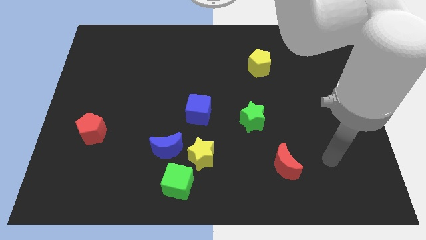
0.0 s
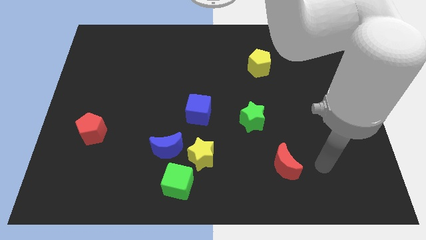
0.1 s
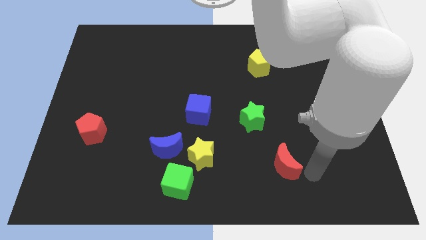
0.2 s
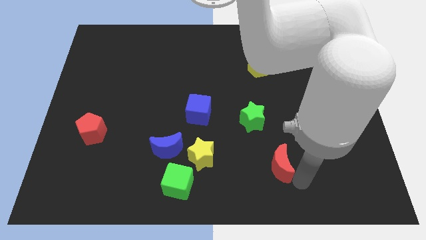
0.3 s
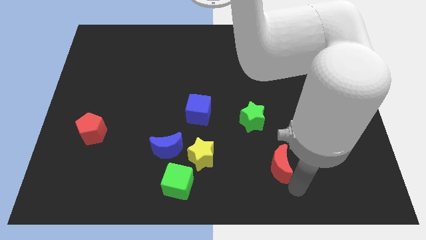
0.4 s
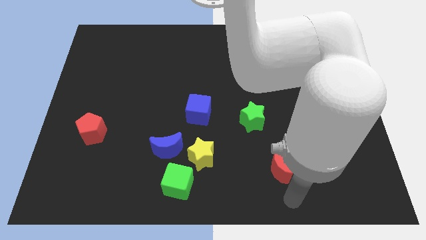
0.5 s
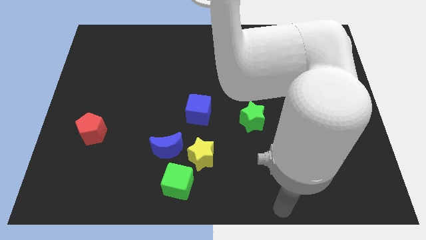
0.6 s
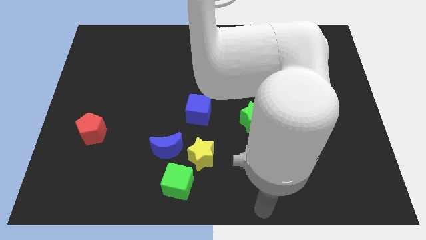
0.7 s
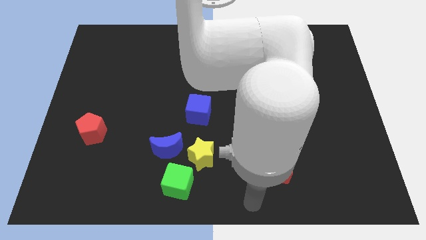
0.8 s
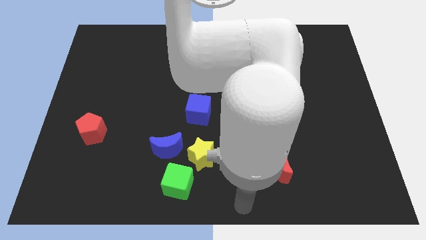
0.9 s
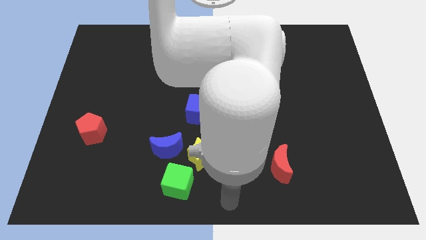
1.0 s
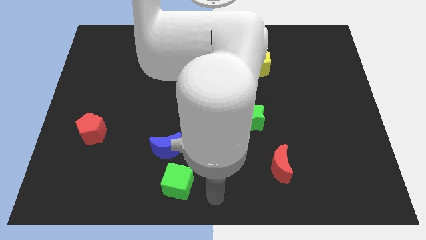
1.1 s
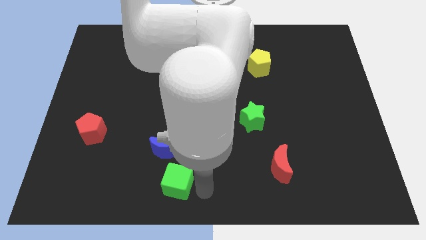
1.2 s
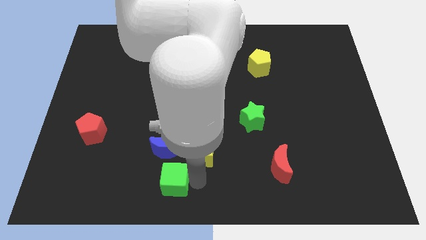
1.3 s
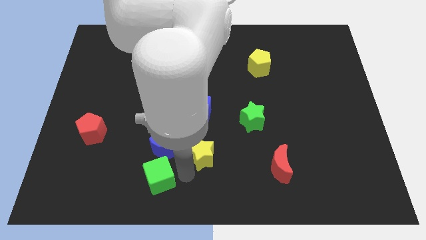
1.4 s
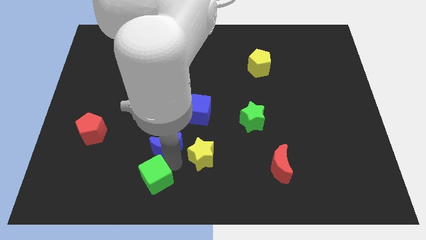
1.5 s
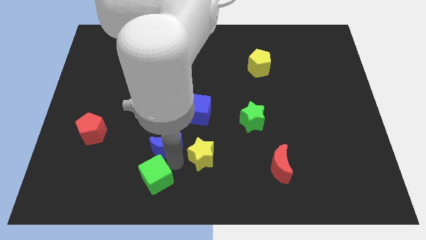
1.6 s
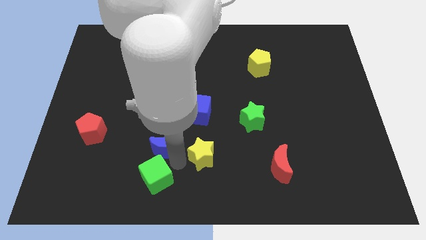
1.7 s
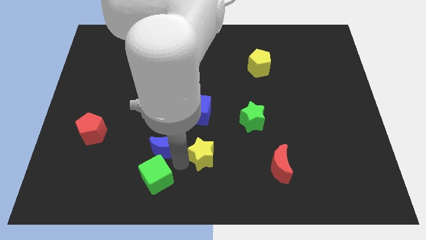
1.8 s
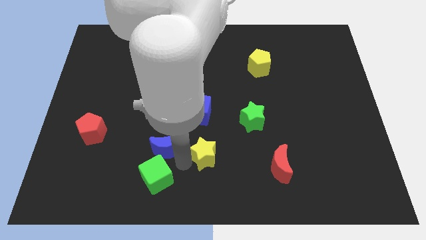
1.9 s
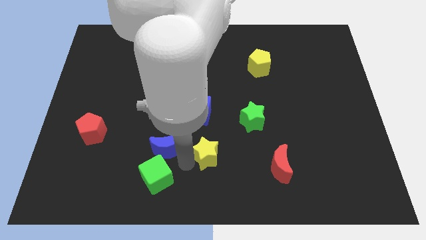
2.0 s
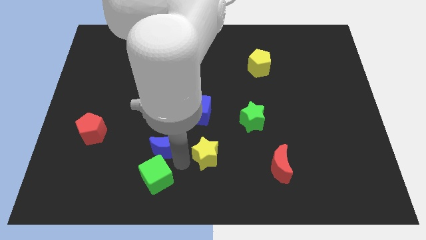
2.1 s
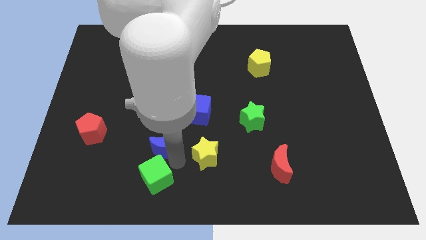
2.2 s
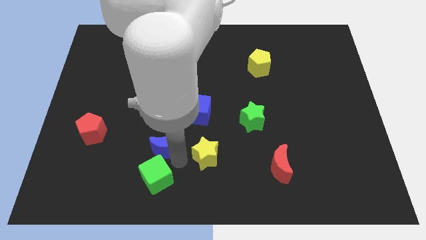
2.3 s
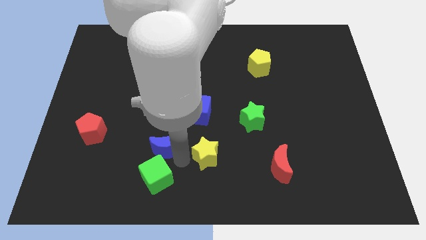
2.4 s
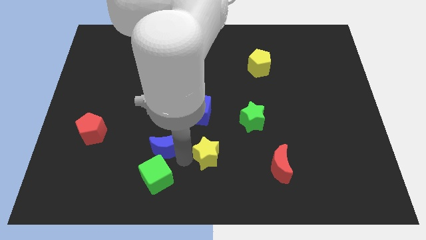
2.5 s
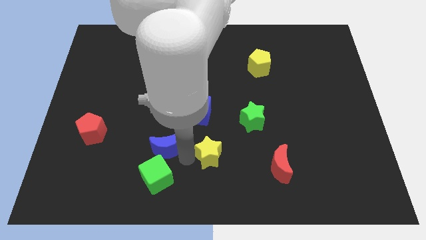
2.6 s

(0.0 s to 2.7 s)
move the yellow star away from the green cube and blue moon

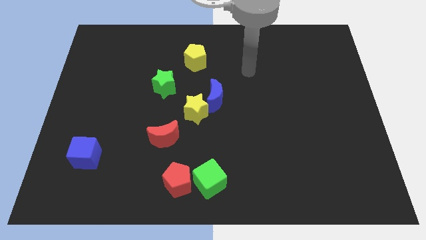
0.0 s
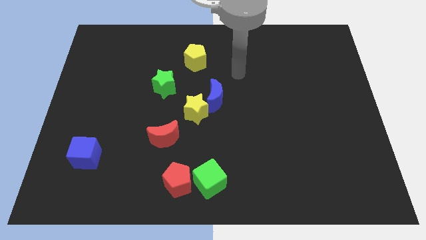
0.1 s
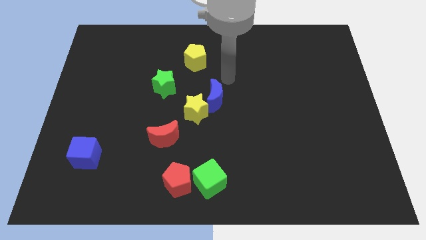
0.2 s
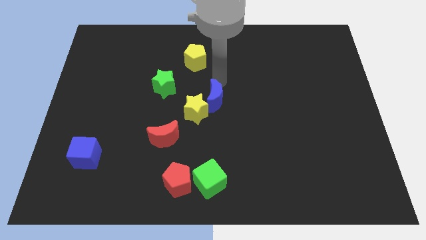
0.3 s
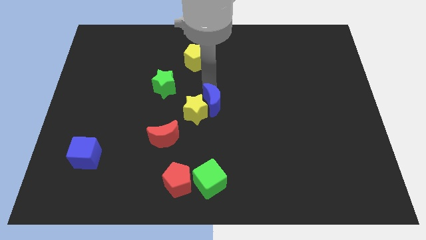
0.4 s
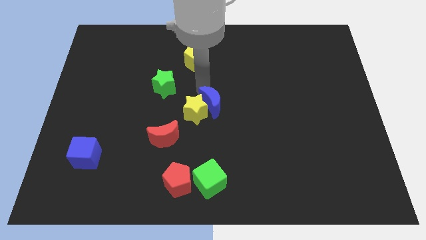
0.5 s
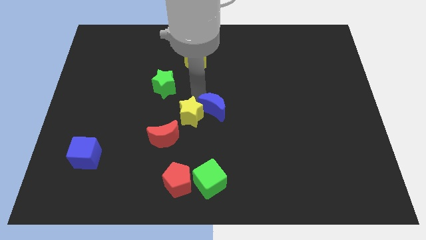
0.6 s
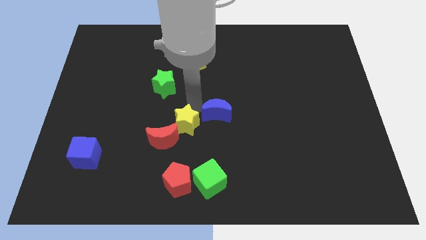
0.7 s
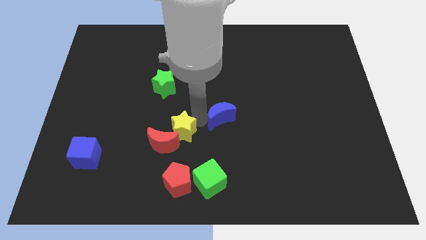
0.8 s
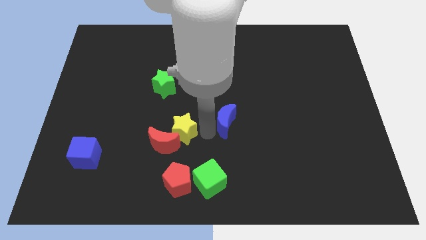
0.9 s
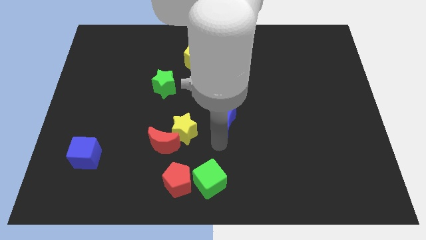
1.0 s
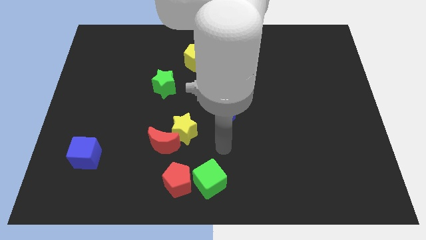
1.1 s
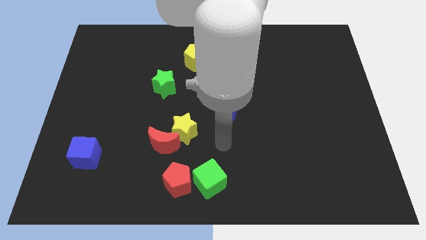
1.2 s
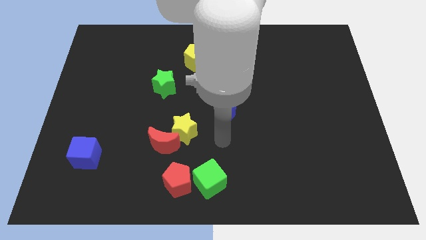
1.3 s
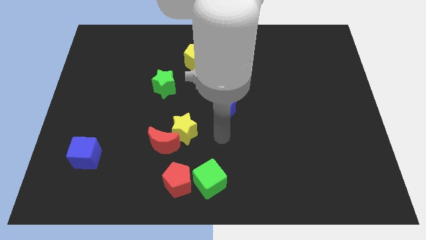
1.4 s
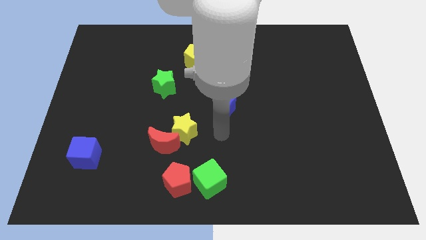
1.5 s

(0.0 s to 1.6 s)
separate the blue moon from the yellow star

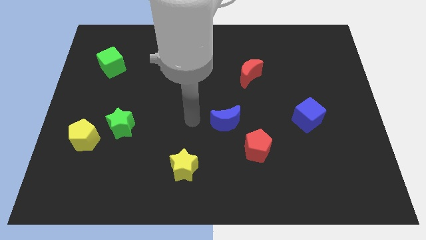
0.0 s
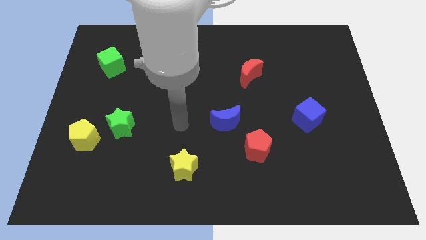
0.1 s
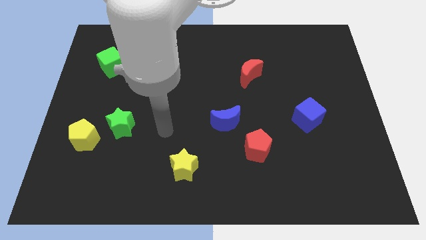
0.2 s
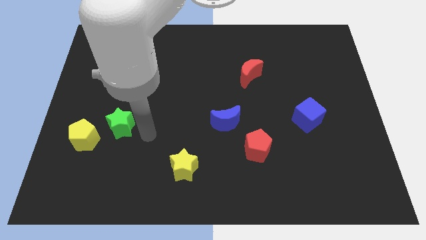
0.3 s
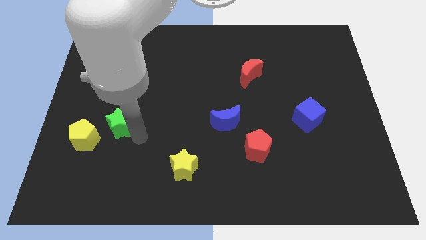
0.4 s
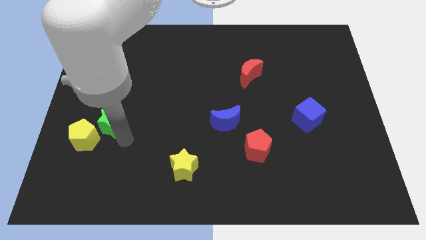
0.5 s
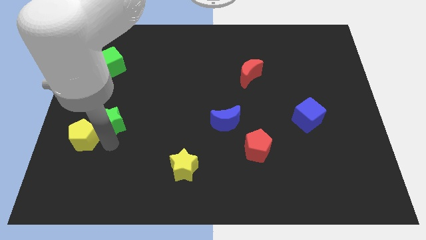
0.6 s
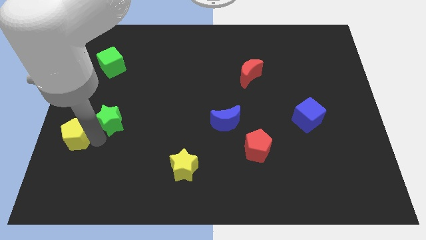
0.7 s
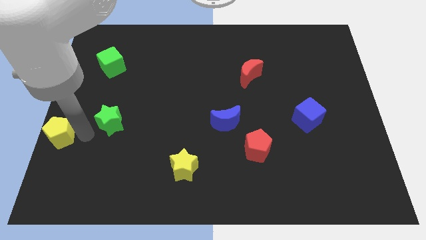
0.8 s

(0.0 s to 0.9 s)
move the green star away from the yellow pentagon

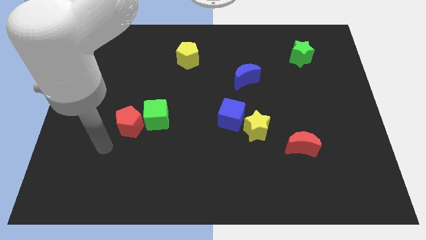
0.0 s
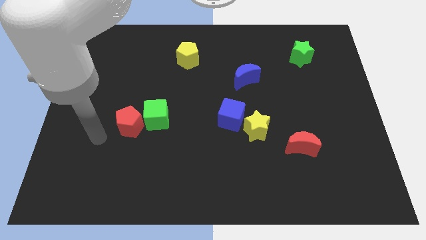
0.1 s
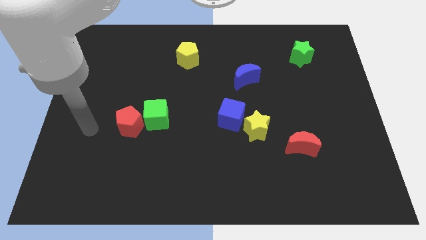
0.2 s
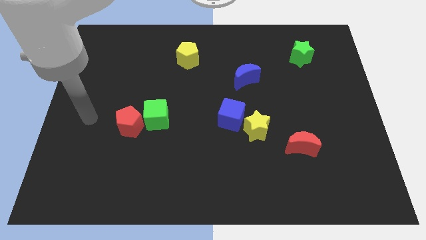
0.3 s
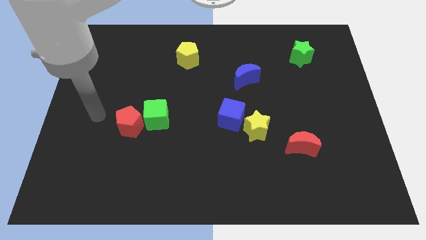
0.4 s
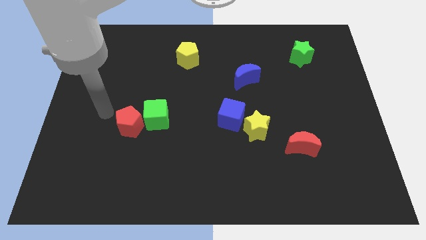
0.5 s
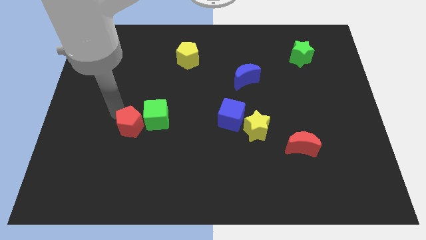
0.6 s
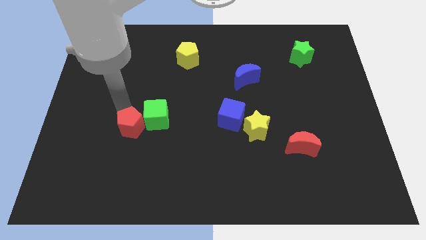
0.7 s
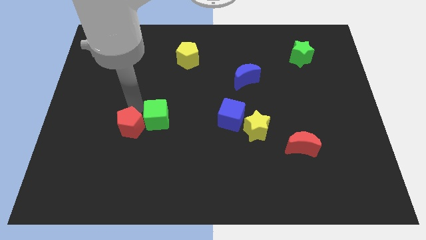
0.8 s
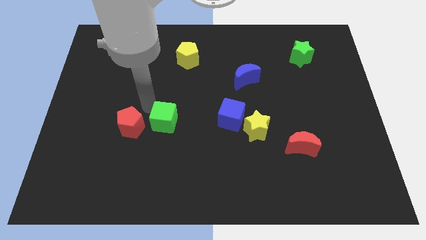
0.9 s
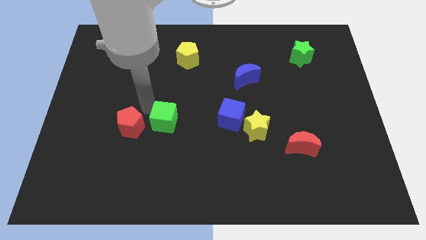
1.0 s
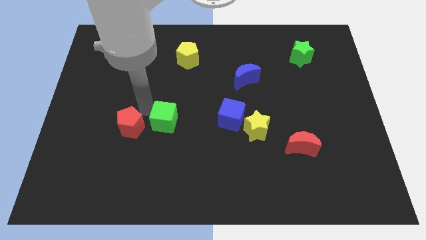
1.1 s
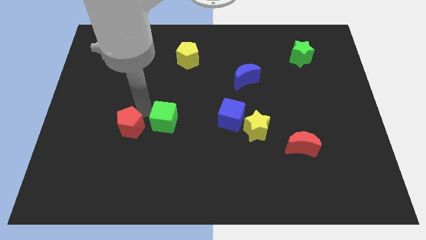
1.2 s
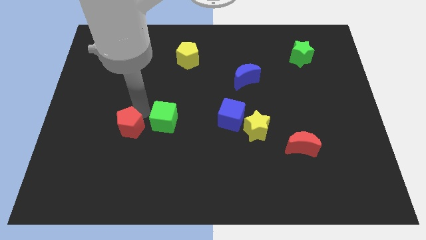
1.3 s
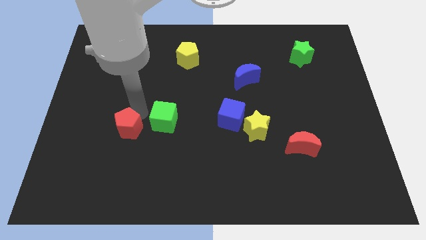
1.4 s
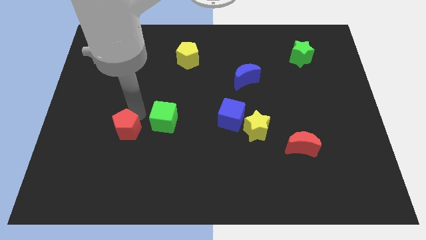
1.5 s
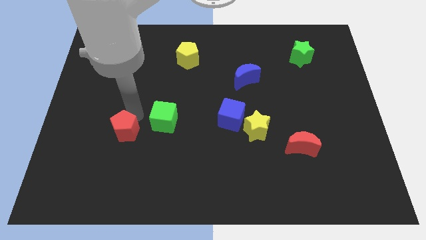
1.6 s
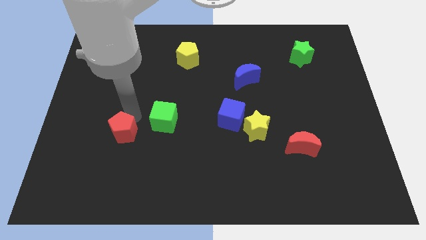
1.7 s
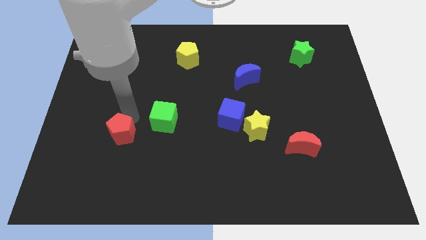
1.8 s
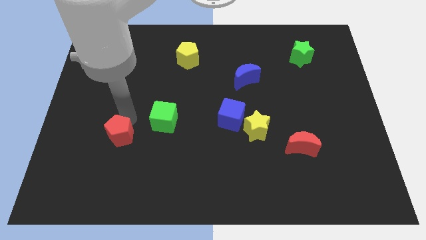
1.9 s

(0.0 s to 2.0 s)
move the red pentagon away from the green cube

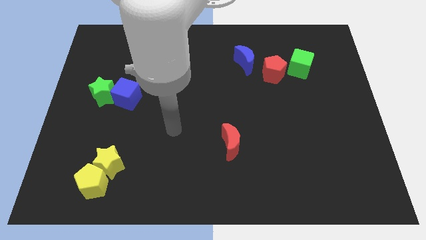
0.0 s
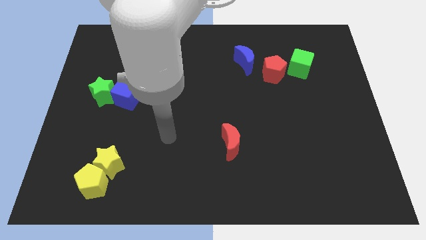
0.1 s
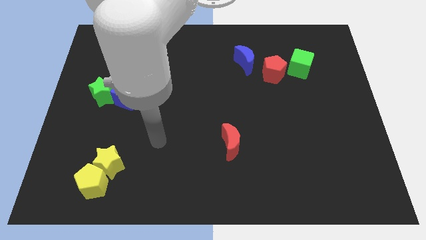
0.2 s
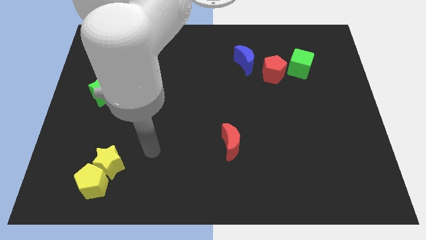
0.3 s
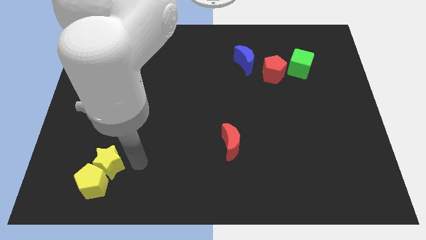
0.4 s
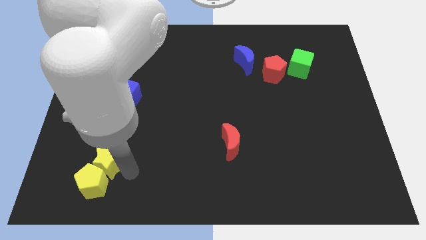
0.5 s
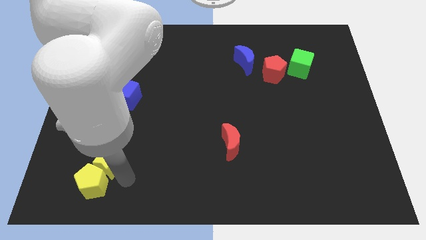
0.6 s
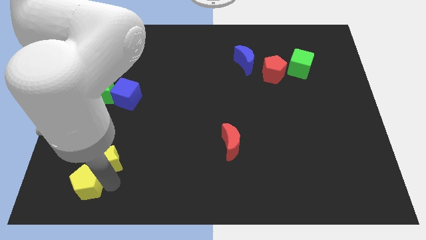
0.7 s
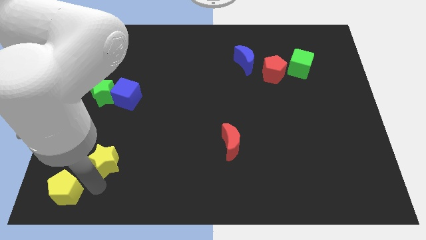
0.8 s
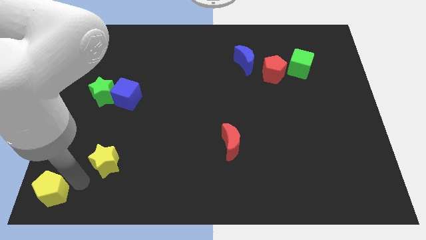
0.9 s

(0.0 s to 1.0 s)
pull the yellow star apart from the yellow pentagon

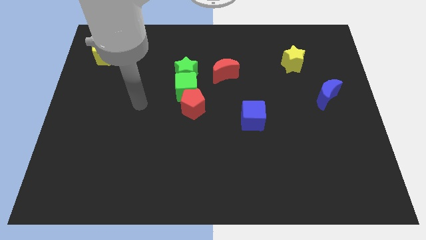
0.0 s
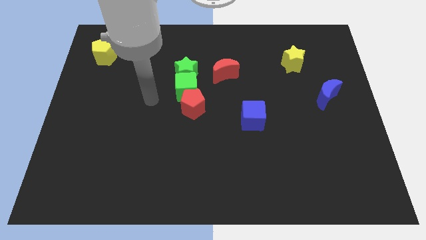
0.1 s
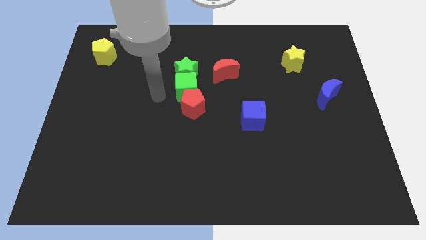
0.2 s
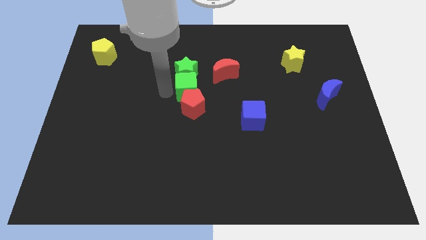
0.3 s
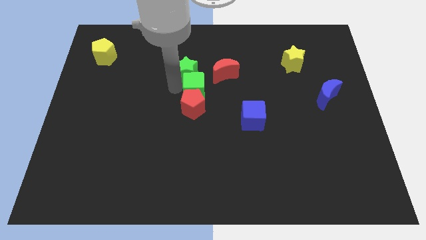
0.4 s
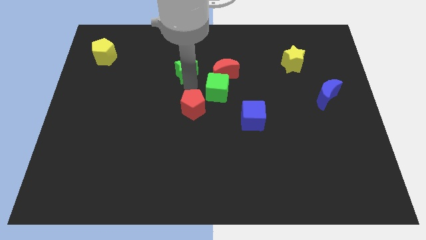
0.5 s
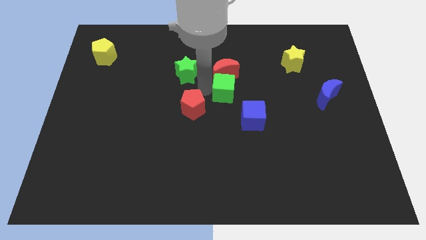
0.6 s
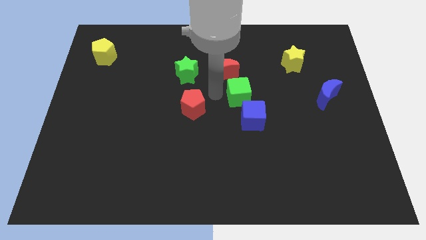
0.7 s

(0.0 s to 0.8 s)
pull the red pentagon apart from the green cube

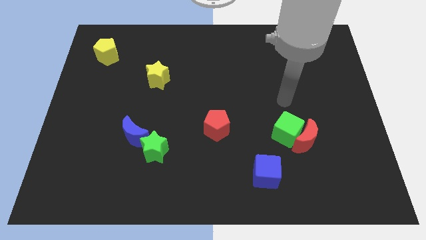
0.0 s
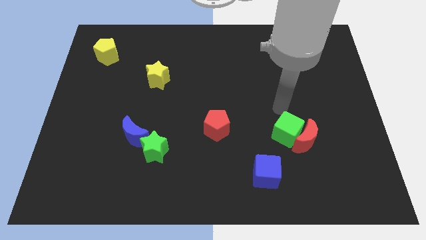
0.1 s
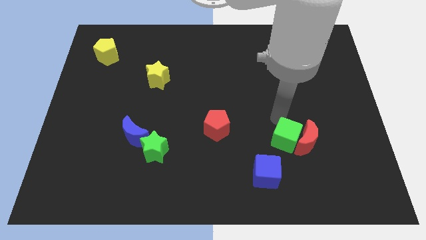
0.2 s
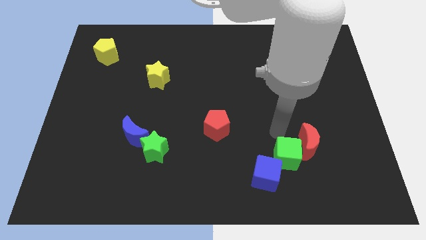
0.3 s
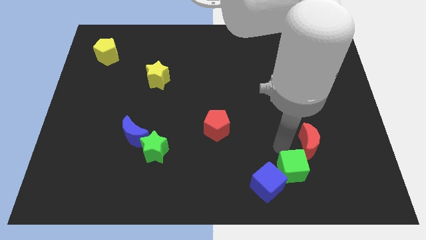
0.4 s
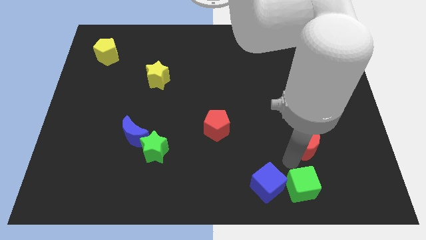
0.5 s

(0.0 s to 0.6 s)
pull the red moon apart from the green cube
